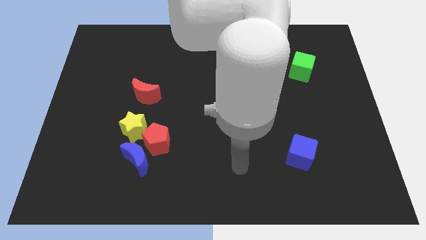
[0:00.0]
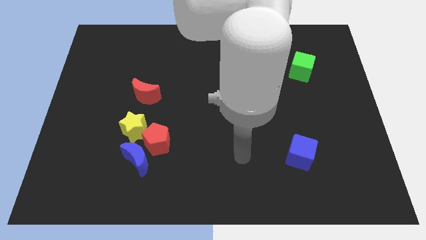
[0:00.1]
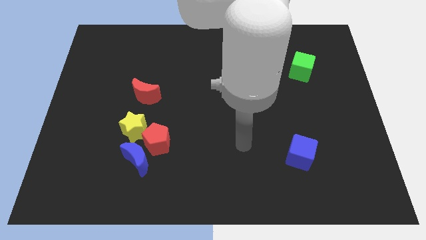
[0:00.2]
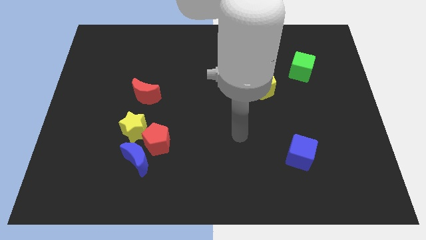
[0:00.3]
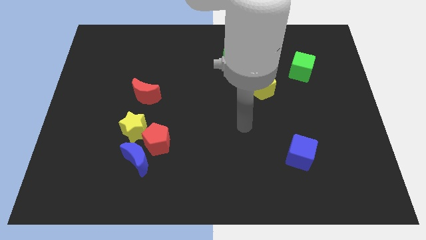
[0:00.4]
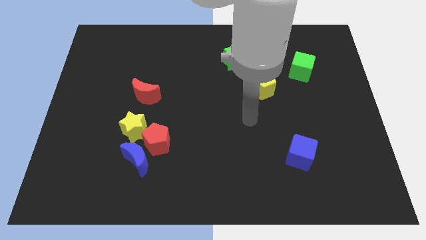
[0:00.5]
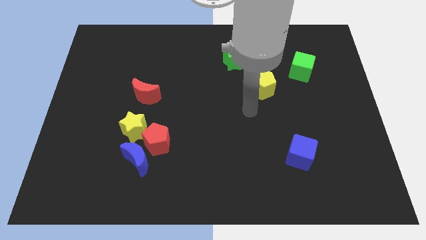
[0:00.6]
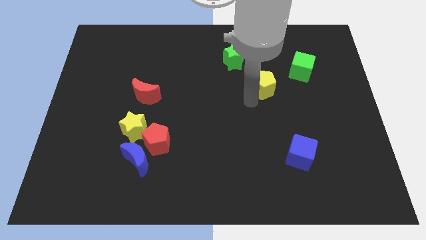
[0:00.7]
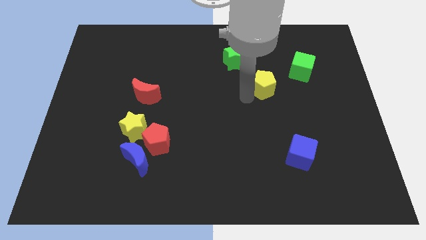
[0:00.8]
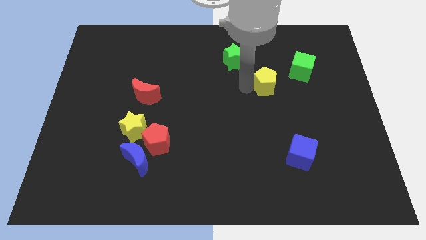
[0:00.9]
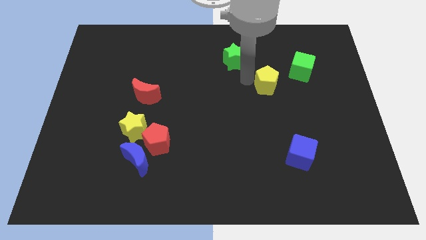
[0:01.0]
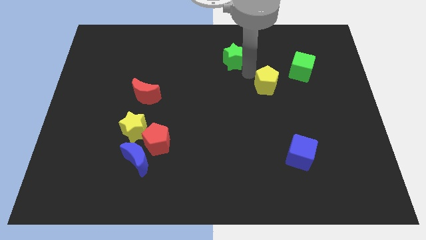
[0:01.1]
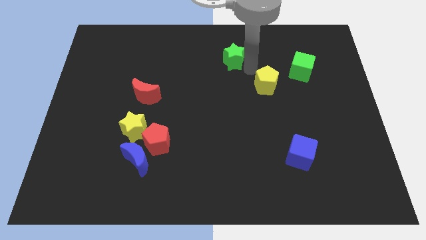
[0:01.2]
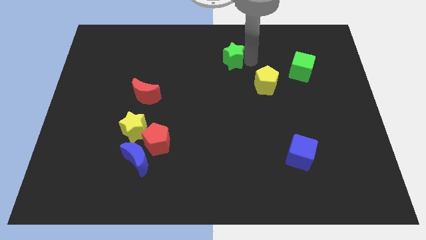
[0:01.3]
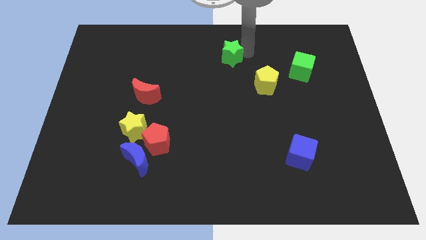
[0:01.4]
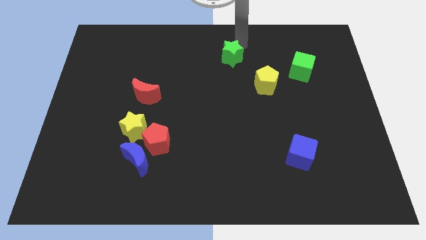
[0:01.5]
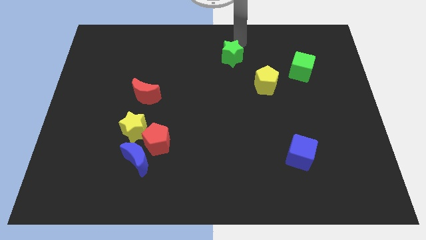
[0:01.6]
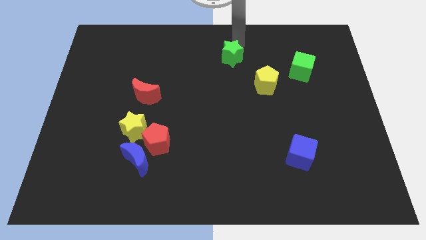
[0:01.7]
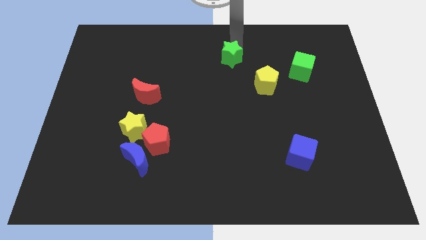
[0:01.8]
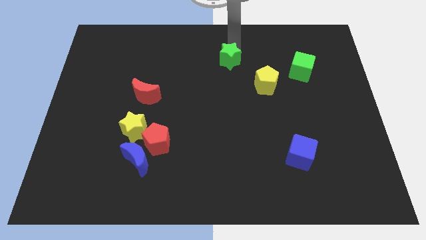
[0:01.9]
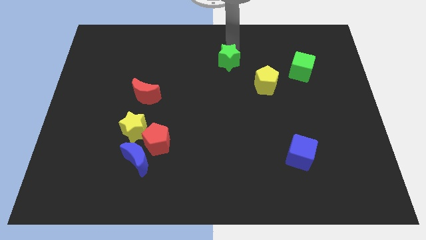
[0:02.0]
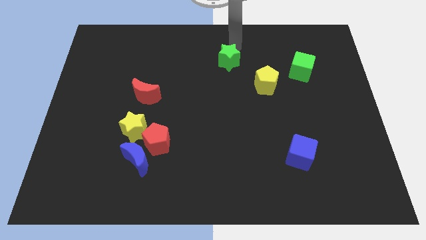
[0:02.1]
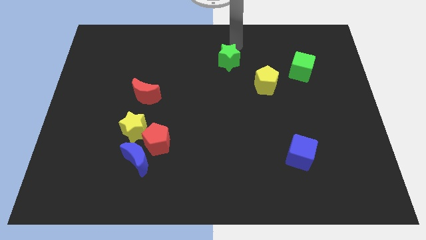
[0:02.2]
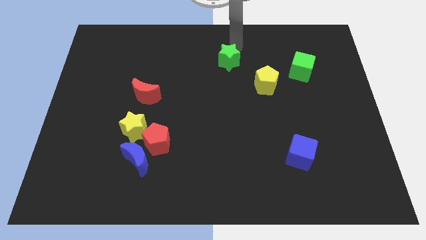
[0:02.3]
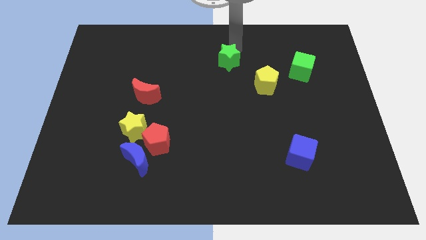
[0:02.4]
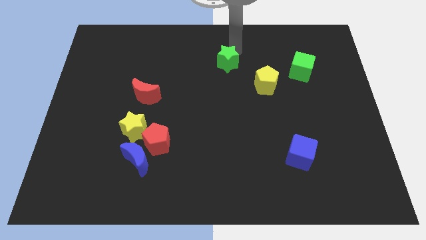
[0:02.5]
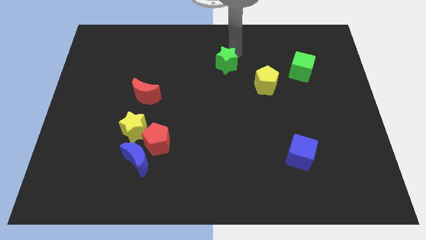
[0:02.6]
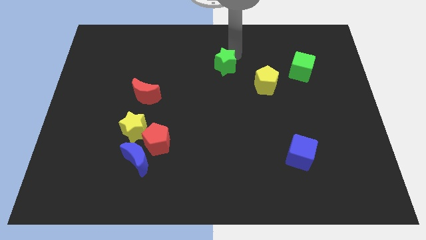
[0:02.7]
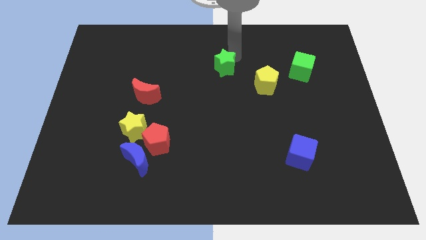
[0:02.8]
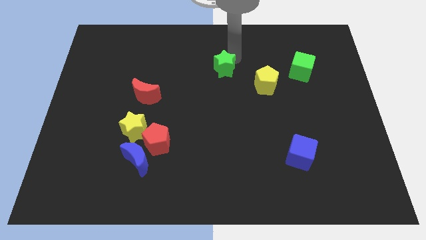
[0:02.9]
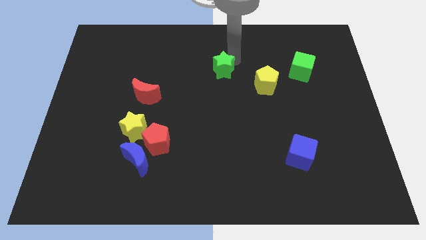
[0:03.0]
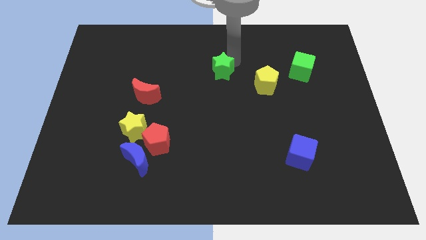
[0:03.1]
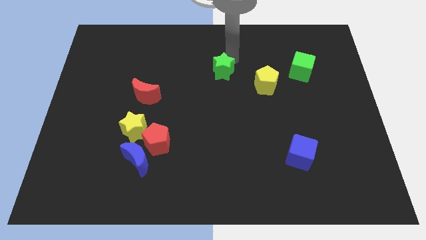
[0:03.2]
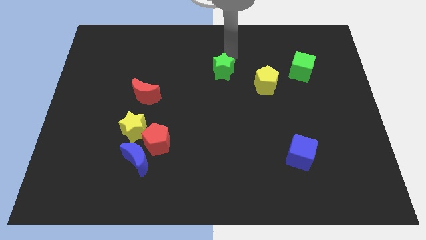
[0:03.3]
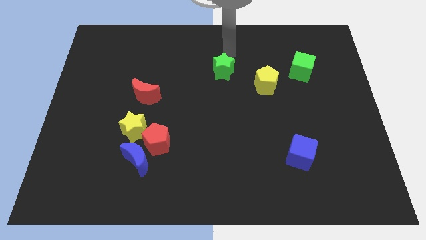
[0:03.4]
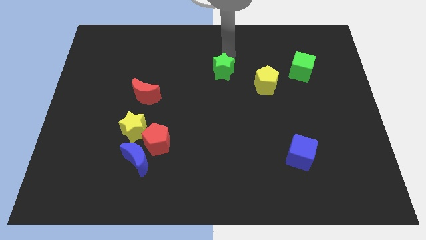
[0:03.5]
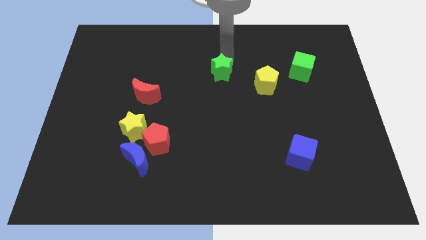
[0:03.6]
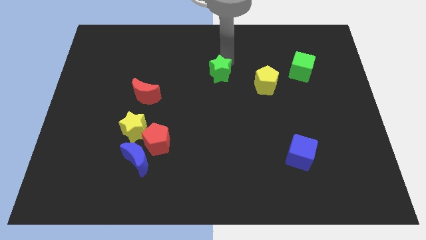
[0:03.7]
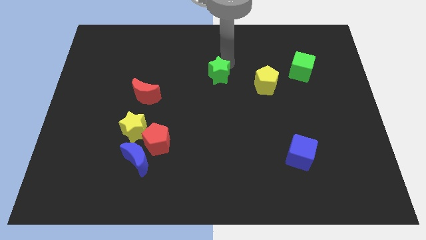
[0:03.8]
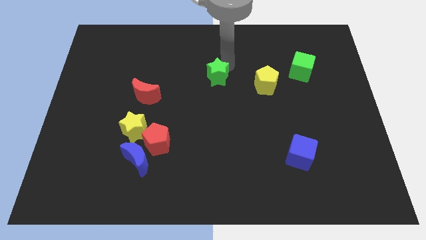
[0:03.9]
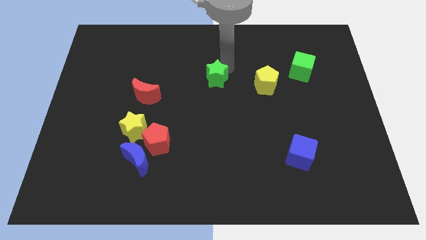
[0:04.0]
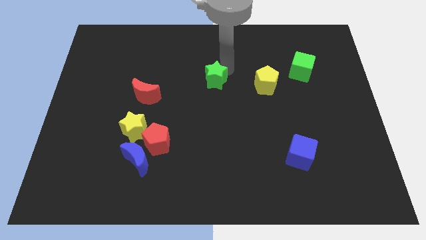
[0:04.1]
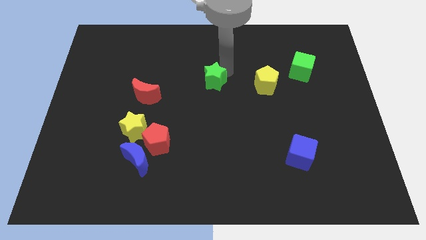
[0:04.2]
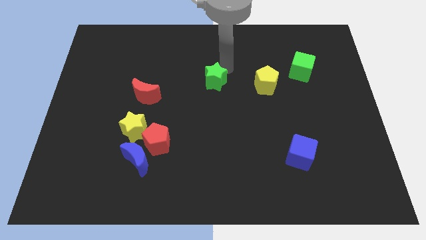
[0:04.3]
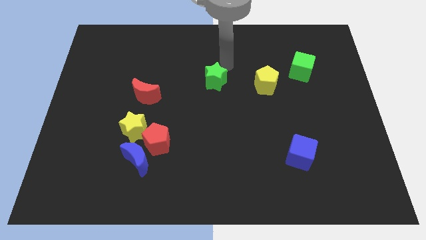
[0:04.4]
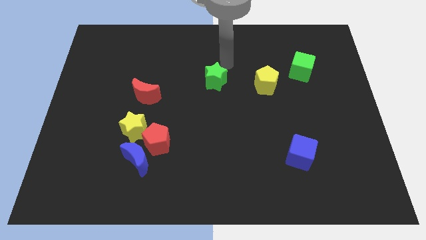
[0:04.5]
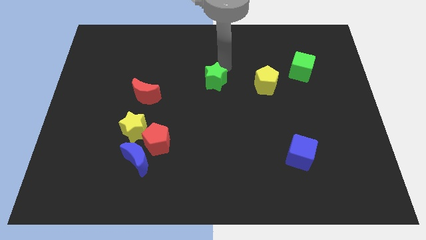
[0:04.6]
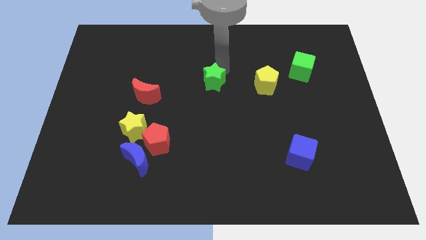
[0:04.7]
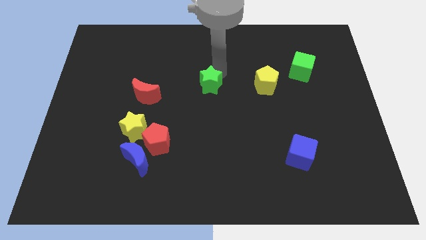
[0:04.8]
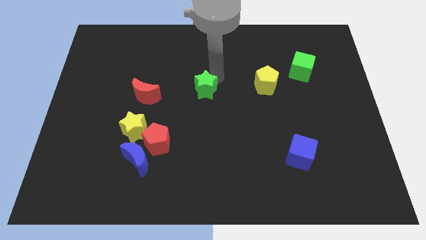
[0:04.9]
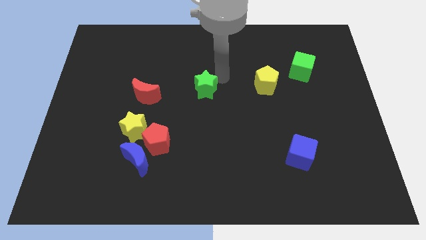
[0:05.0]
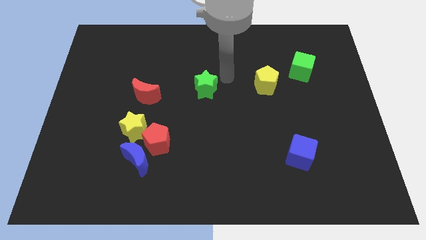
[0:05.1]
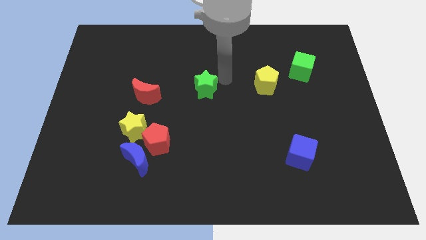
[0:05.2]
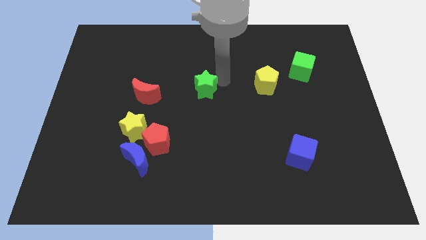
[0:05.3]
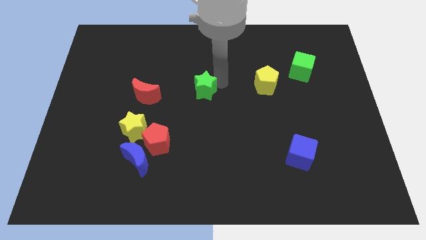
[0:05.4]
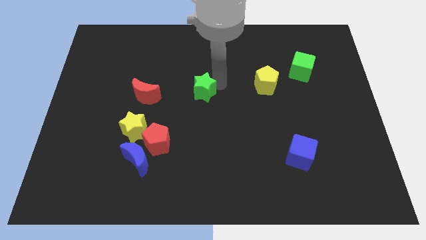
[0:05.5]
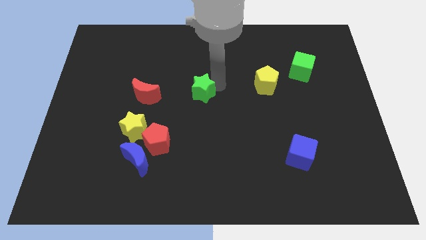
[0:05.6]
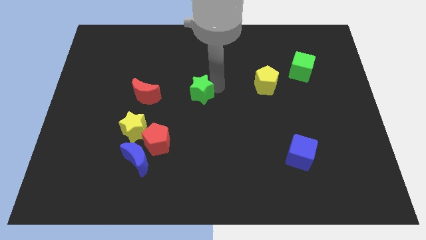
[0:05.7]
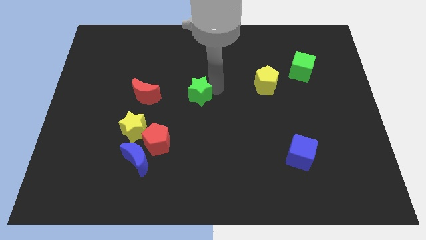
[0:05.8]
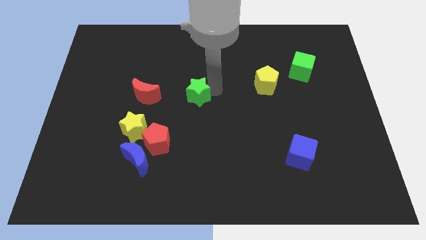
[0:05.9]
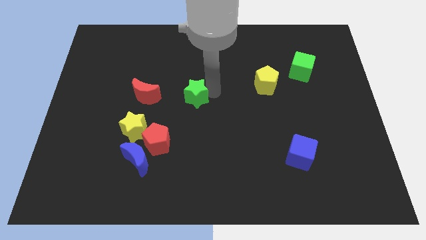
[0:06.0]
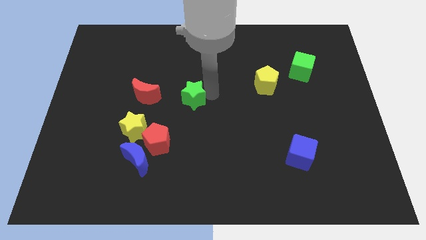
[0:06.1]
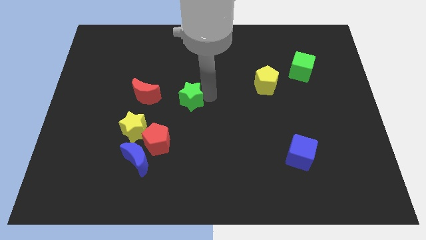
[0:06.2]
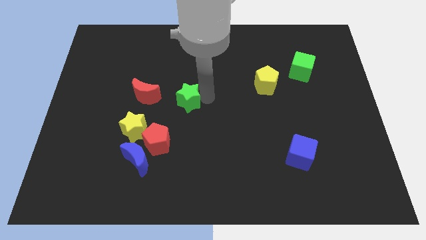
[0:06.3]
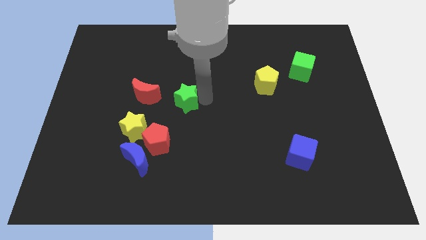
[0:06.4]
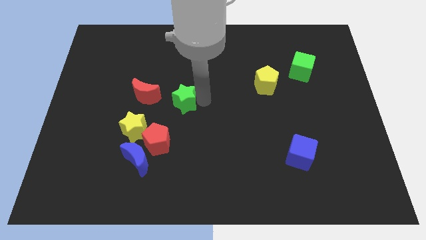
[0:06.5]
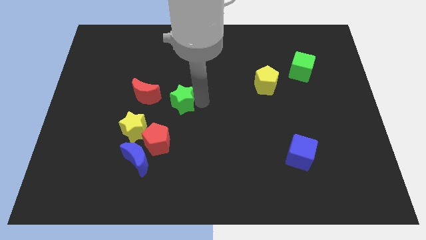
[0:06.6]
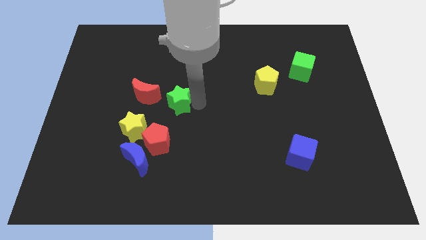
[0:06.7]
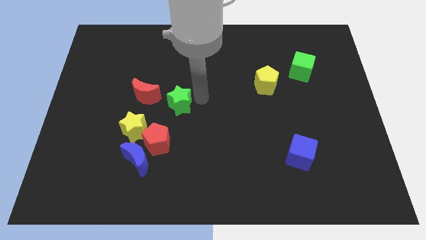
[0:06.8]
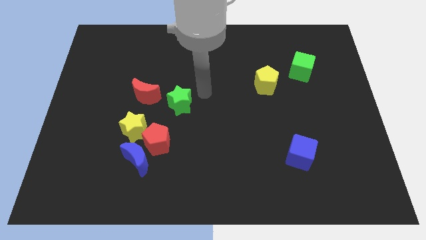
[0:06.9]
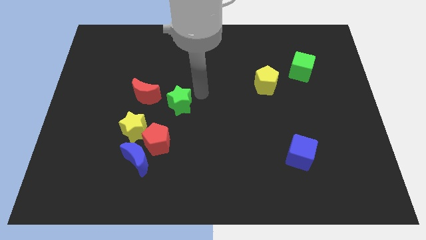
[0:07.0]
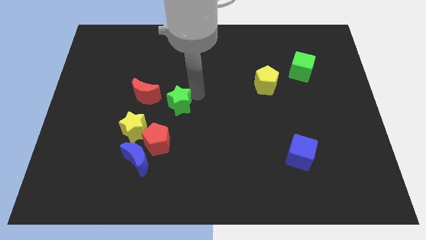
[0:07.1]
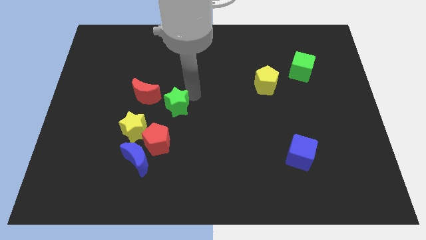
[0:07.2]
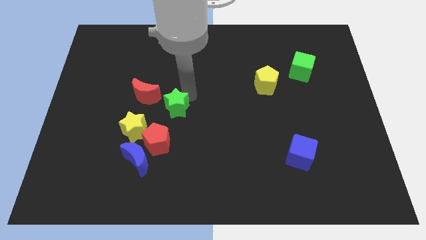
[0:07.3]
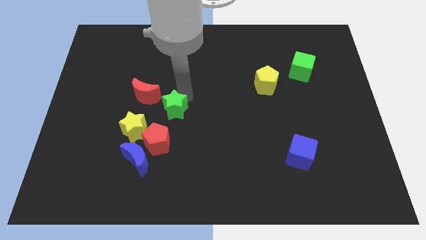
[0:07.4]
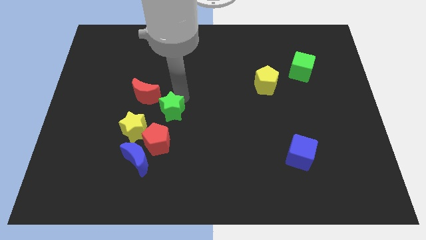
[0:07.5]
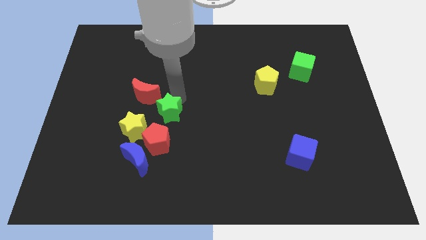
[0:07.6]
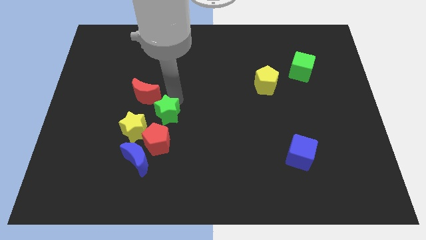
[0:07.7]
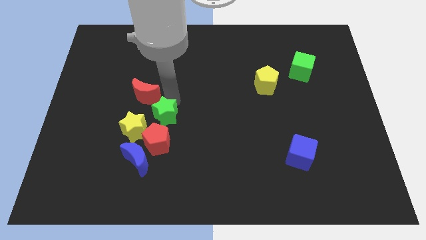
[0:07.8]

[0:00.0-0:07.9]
move the green star above the blue moon
